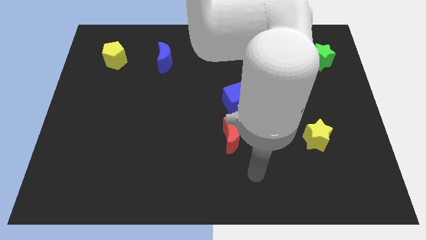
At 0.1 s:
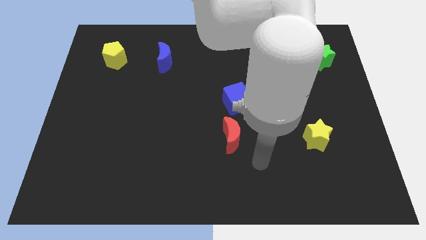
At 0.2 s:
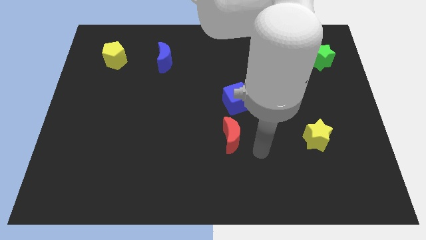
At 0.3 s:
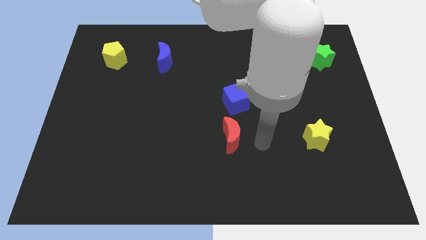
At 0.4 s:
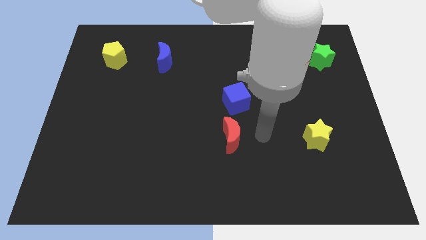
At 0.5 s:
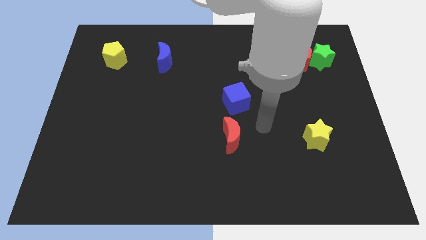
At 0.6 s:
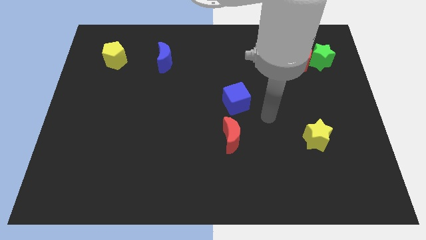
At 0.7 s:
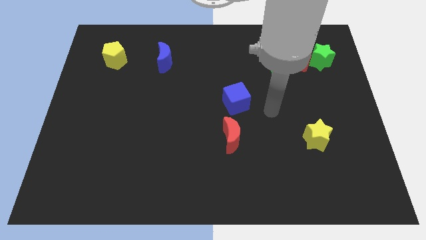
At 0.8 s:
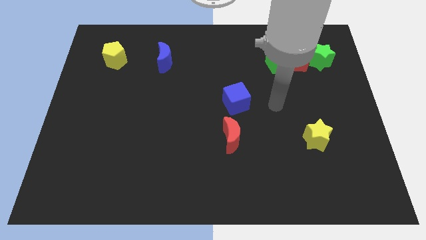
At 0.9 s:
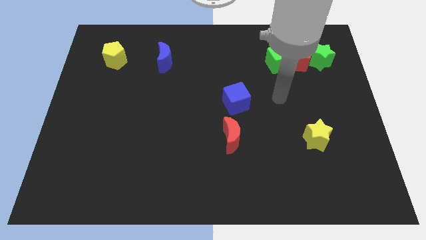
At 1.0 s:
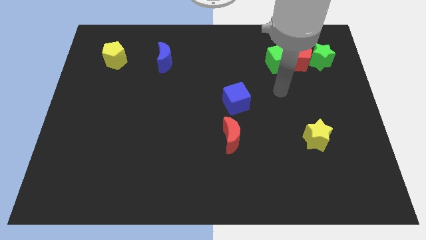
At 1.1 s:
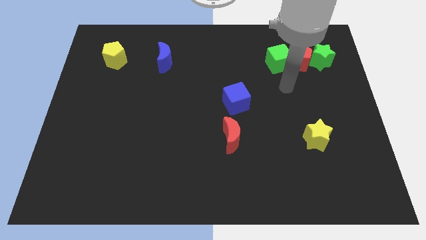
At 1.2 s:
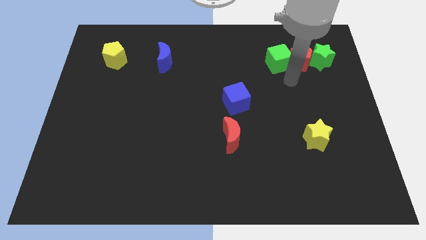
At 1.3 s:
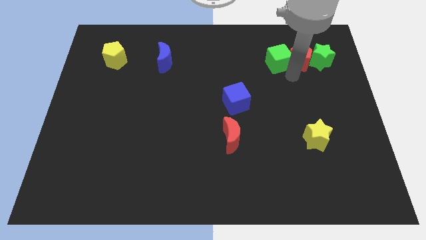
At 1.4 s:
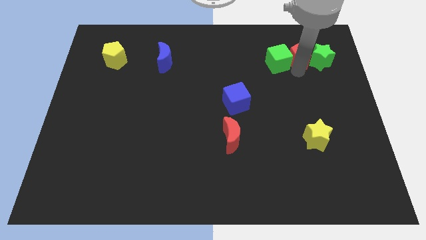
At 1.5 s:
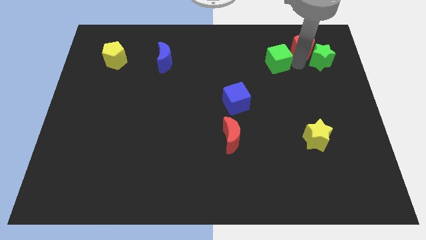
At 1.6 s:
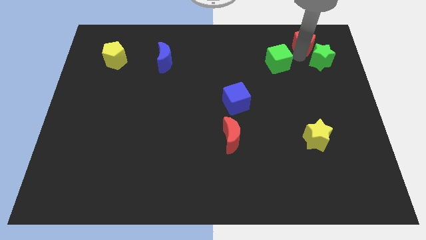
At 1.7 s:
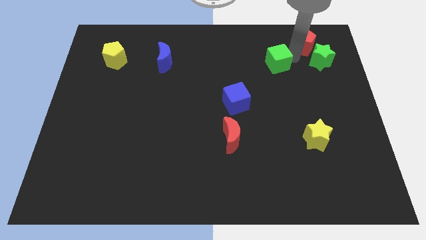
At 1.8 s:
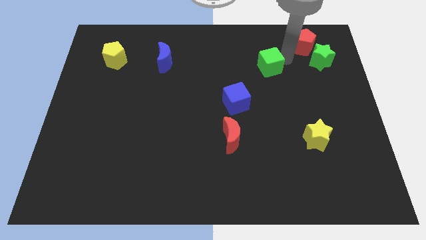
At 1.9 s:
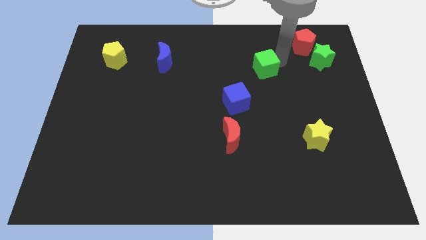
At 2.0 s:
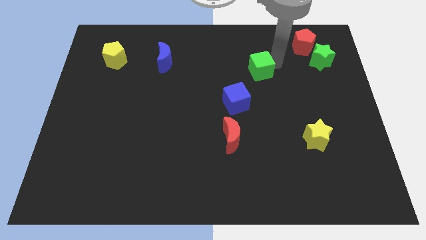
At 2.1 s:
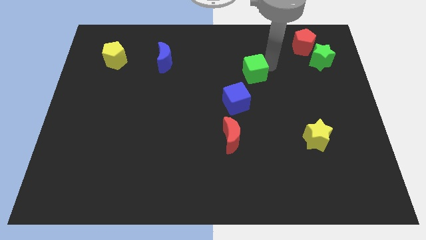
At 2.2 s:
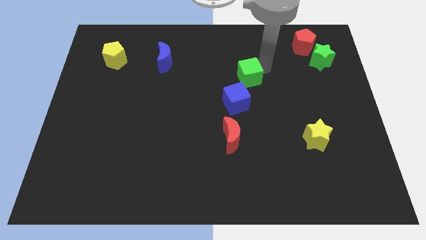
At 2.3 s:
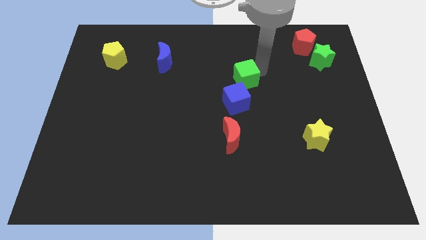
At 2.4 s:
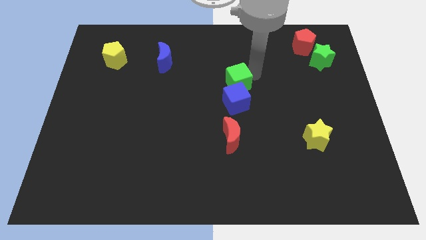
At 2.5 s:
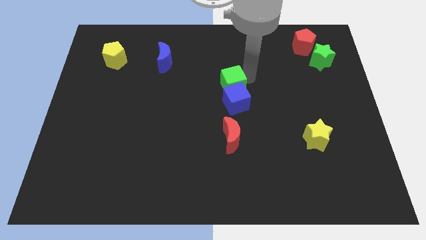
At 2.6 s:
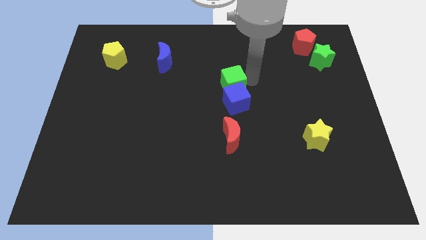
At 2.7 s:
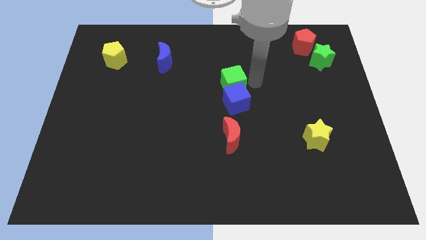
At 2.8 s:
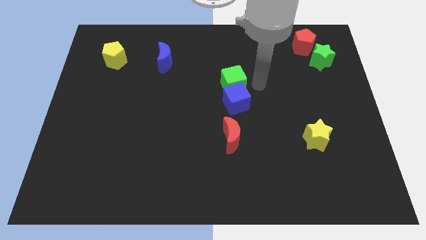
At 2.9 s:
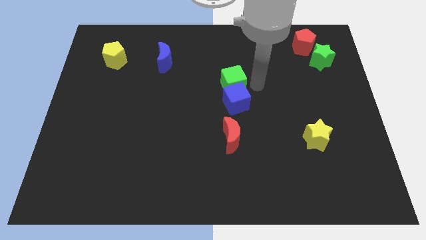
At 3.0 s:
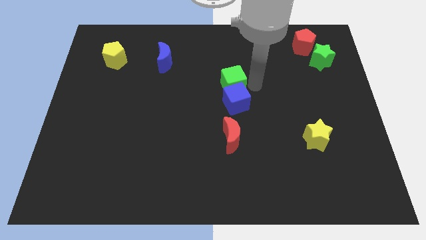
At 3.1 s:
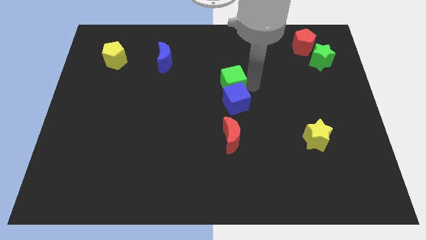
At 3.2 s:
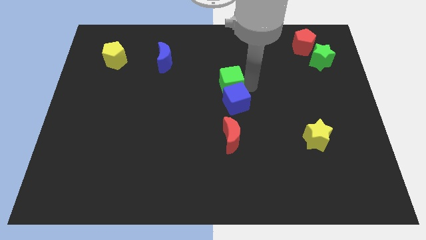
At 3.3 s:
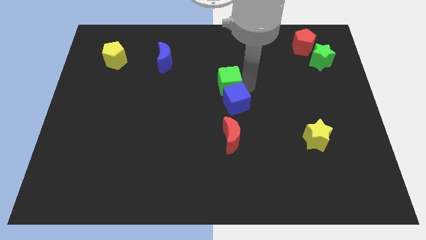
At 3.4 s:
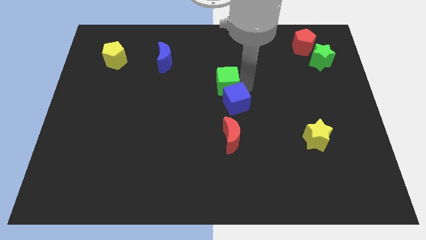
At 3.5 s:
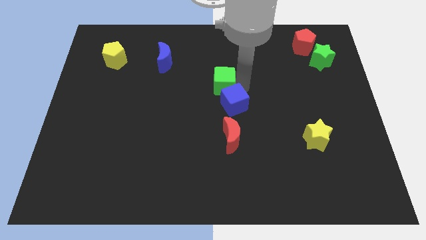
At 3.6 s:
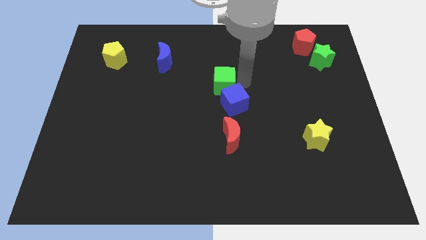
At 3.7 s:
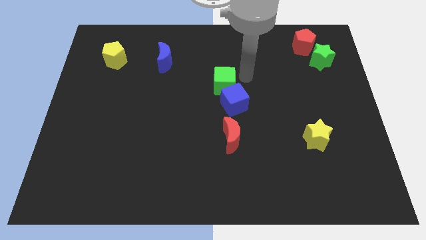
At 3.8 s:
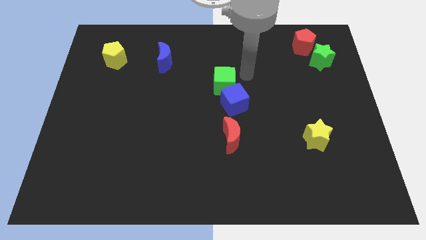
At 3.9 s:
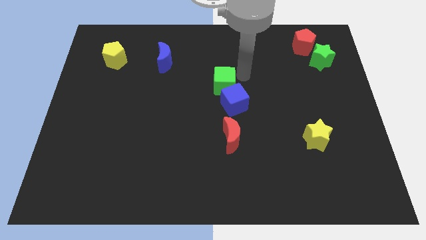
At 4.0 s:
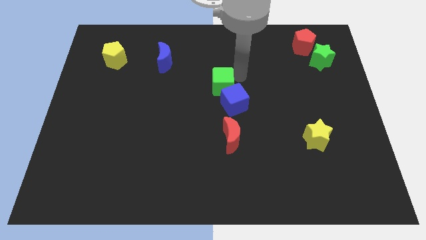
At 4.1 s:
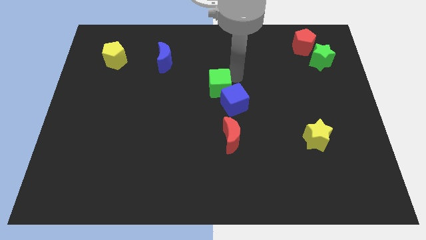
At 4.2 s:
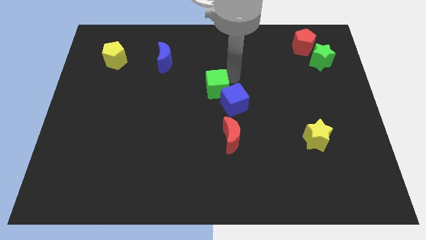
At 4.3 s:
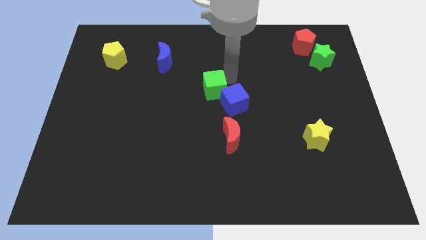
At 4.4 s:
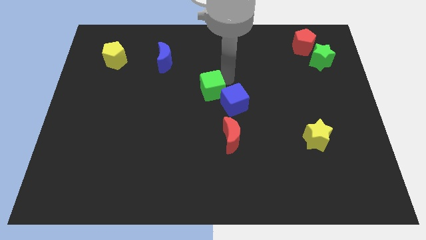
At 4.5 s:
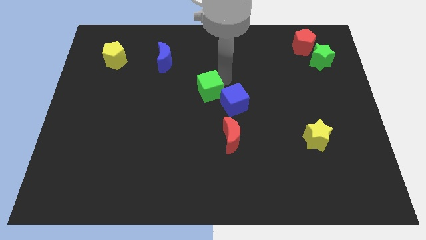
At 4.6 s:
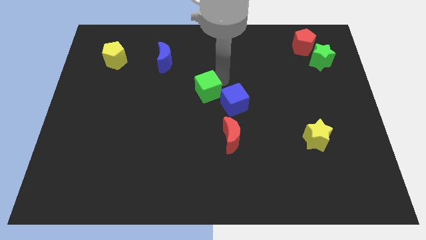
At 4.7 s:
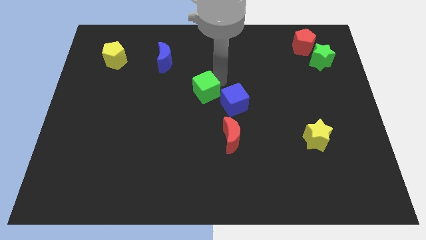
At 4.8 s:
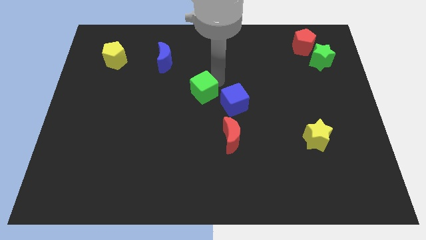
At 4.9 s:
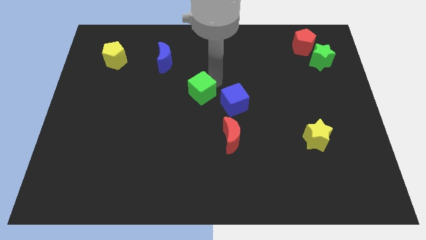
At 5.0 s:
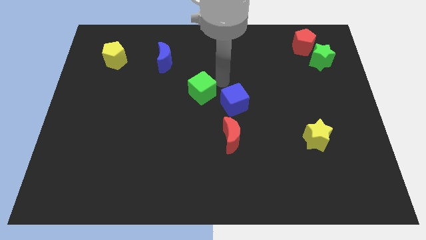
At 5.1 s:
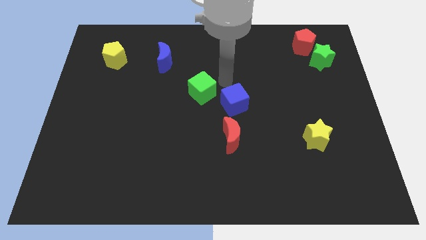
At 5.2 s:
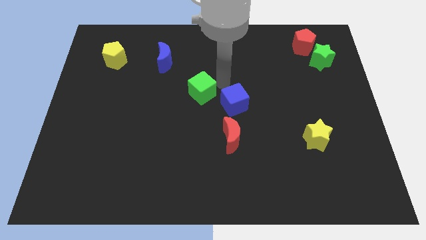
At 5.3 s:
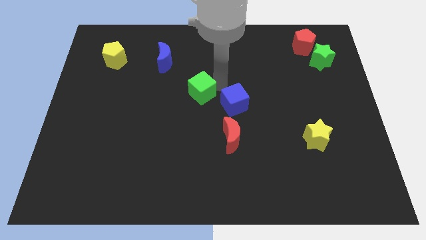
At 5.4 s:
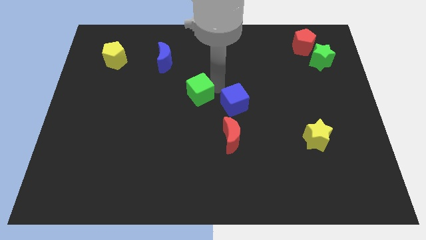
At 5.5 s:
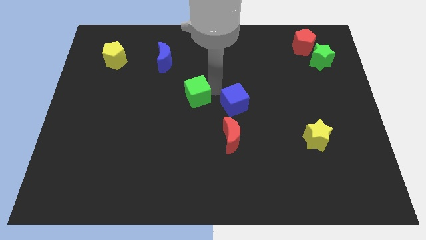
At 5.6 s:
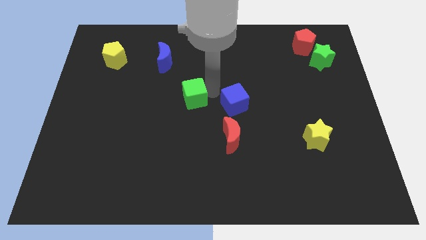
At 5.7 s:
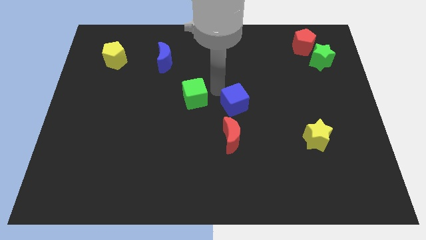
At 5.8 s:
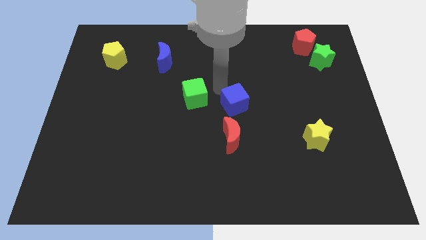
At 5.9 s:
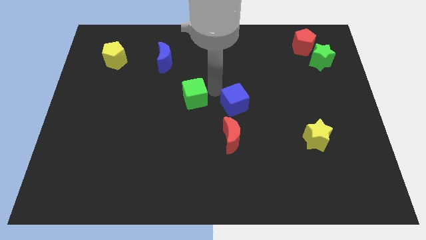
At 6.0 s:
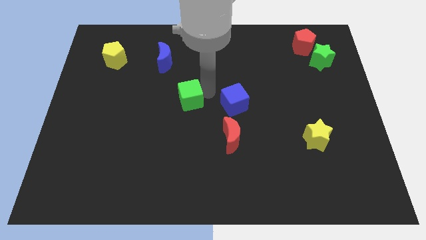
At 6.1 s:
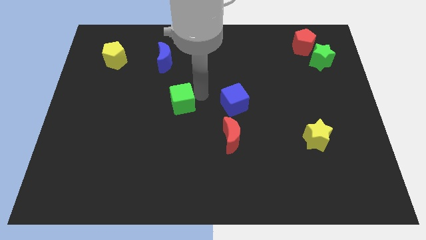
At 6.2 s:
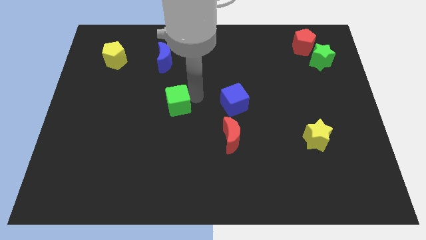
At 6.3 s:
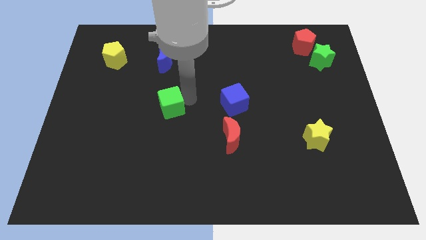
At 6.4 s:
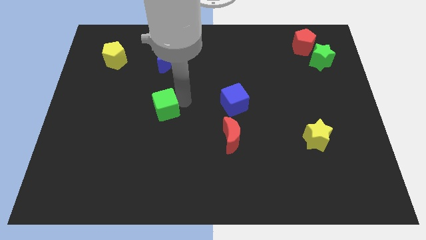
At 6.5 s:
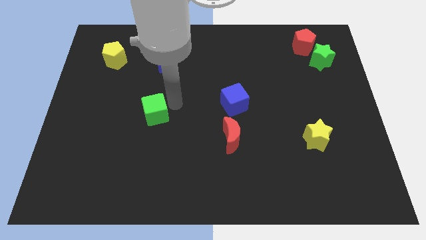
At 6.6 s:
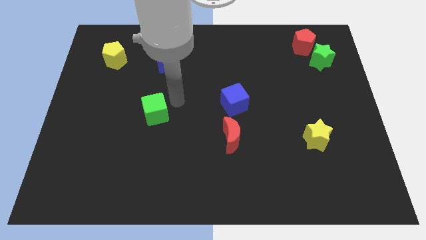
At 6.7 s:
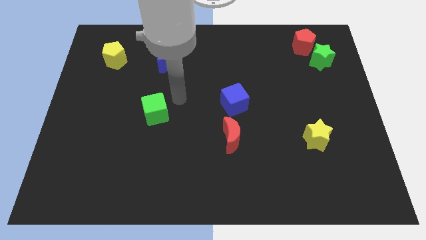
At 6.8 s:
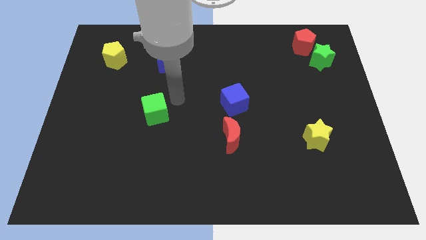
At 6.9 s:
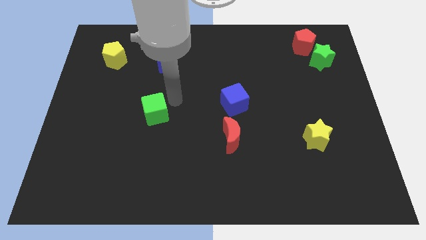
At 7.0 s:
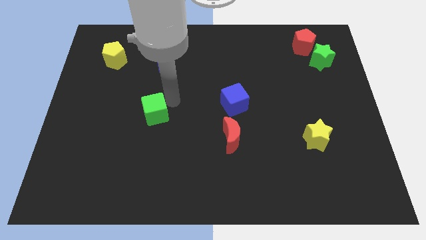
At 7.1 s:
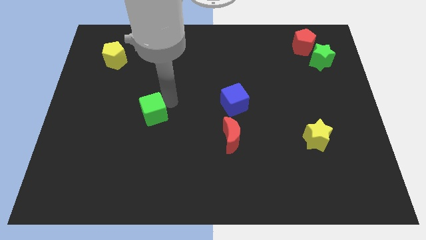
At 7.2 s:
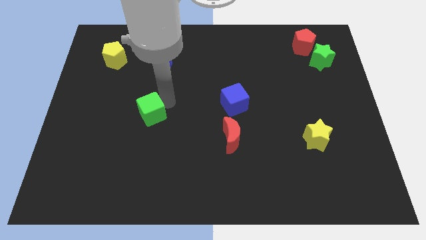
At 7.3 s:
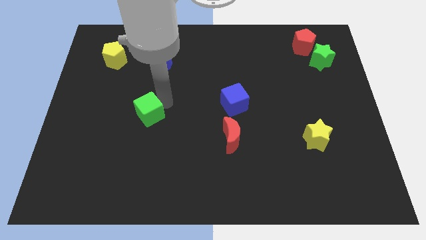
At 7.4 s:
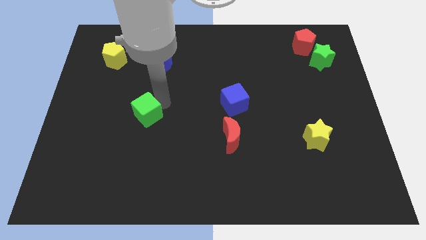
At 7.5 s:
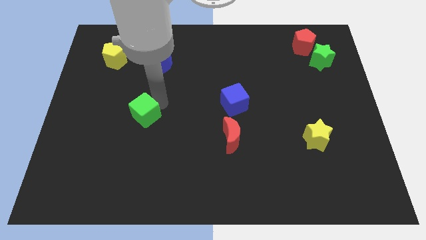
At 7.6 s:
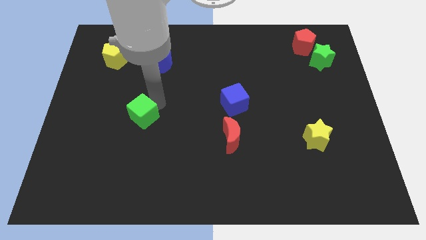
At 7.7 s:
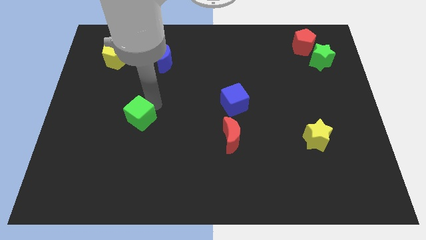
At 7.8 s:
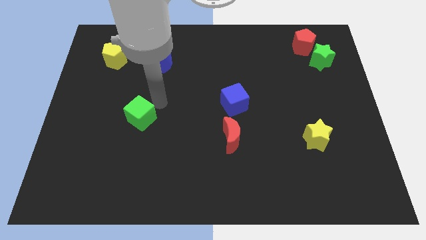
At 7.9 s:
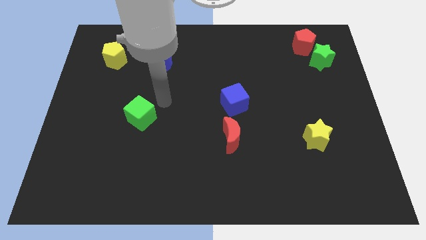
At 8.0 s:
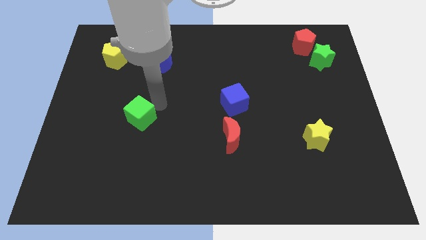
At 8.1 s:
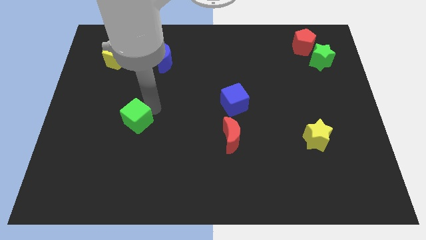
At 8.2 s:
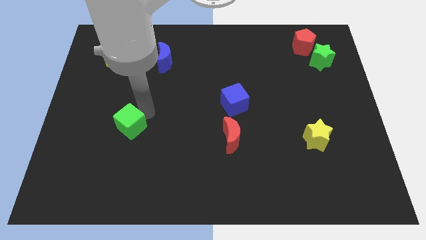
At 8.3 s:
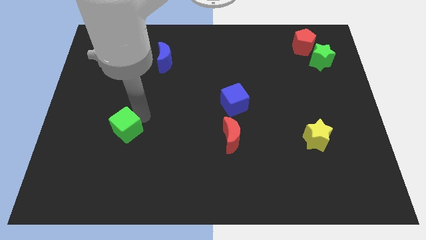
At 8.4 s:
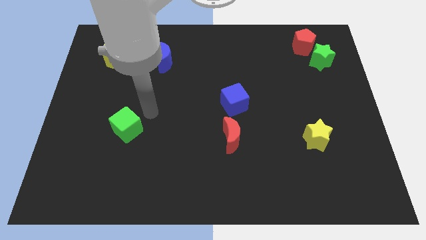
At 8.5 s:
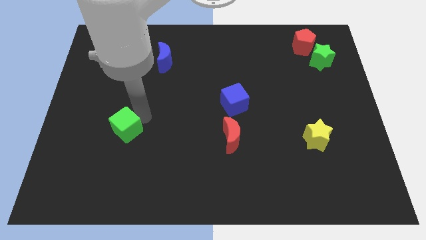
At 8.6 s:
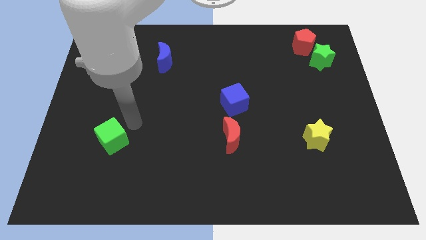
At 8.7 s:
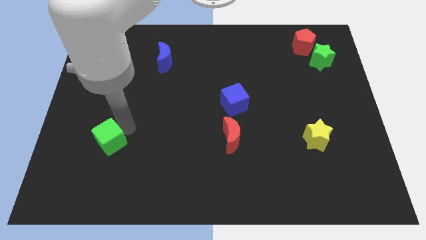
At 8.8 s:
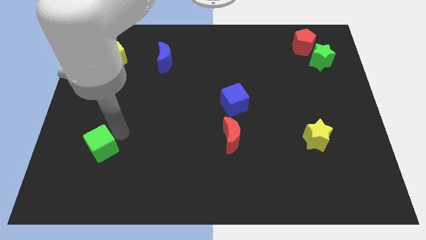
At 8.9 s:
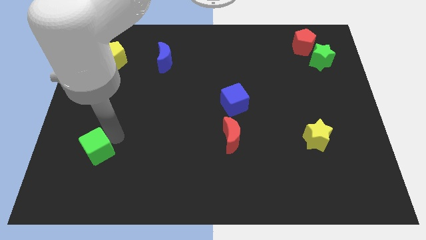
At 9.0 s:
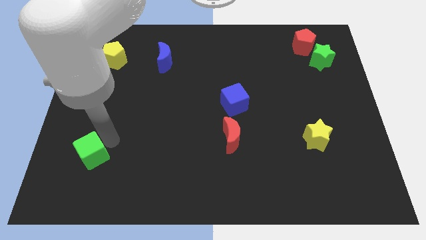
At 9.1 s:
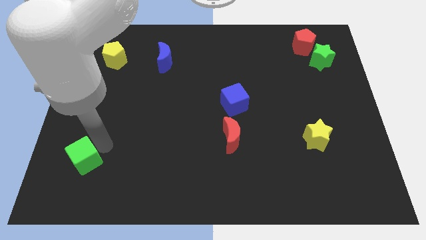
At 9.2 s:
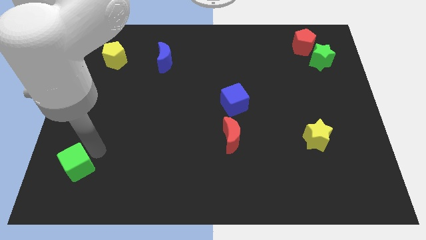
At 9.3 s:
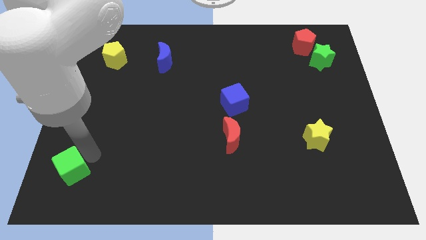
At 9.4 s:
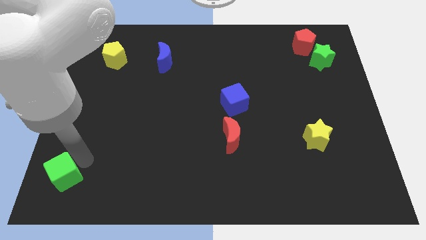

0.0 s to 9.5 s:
push the green cube to the bottom left of the board
